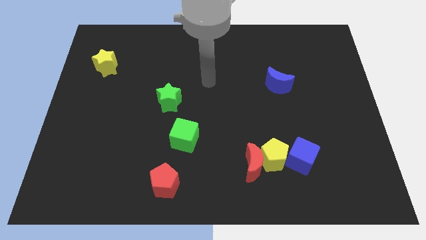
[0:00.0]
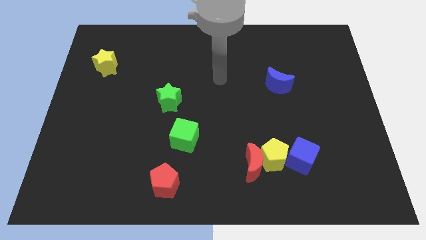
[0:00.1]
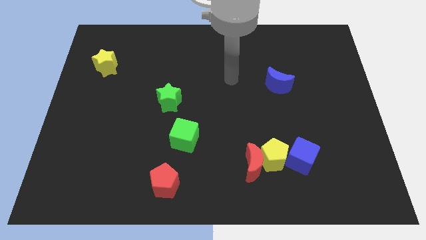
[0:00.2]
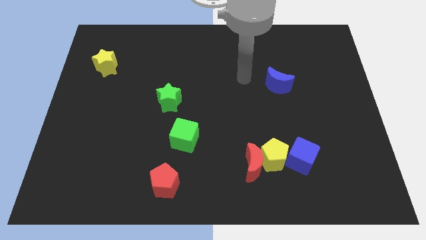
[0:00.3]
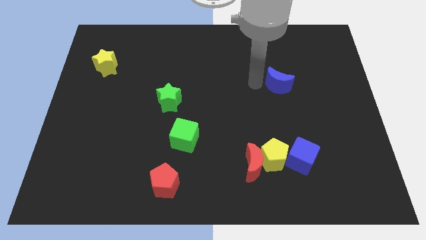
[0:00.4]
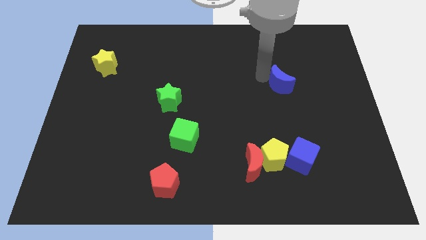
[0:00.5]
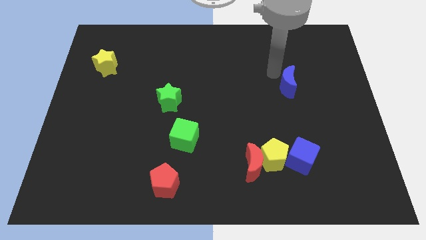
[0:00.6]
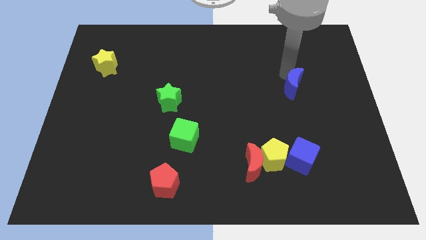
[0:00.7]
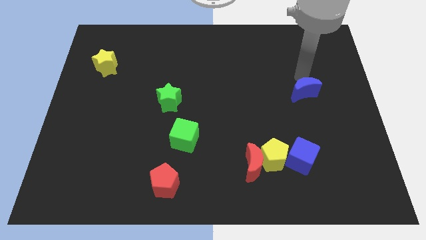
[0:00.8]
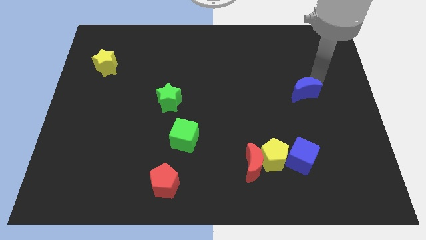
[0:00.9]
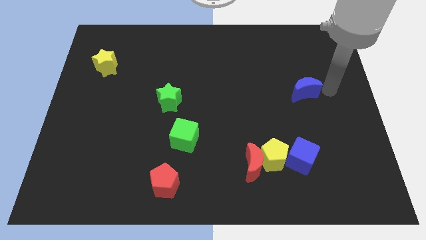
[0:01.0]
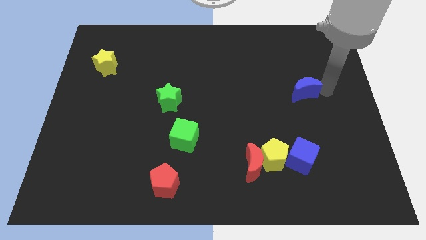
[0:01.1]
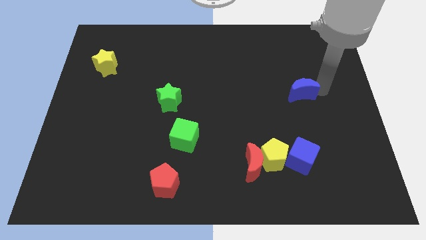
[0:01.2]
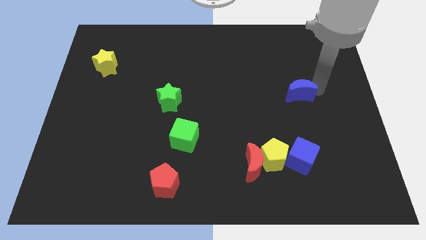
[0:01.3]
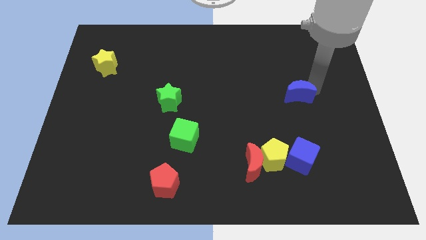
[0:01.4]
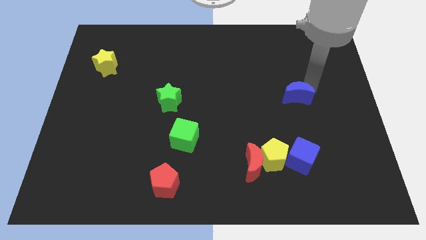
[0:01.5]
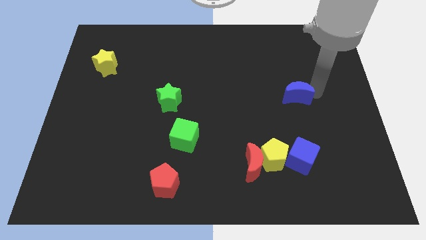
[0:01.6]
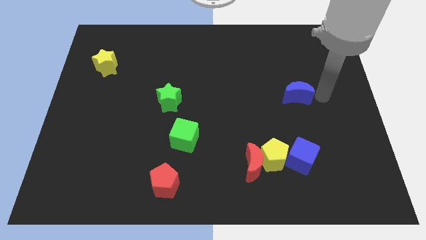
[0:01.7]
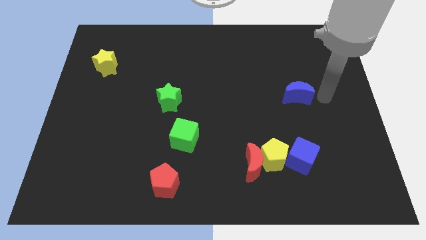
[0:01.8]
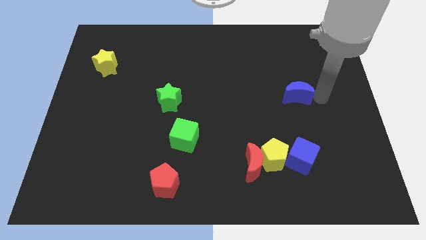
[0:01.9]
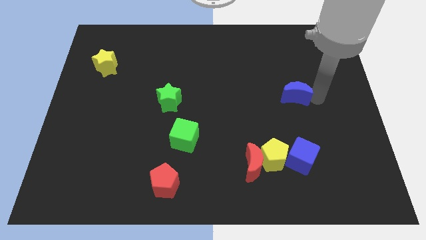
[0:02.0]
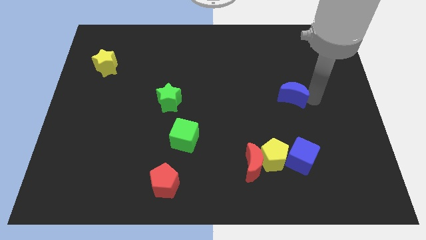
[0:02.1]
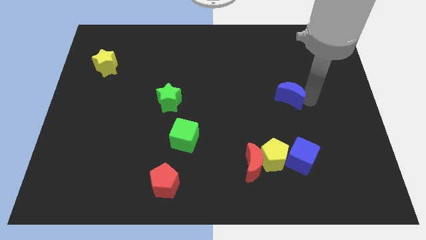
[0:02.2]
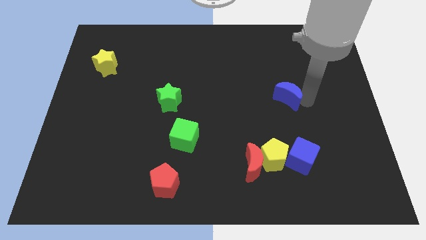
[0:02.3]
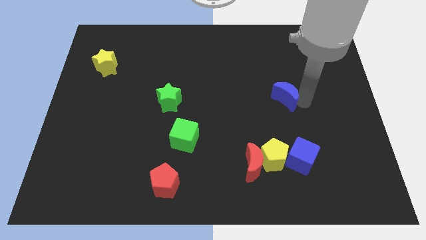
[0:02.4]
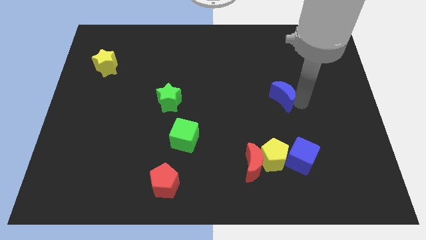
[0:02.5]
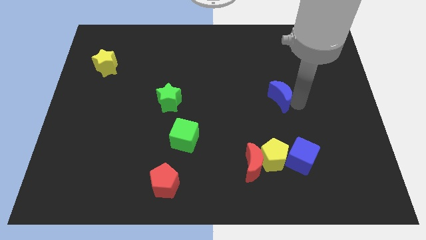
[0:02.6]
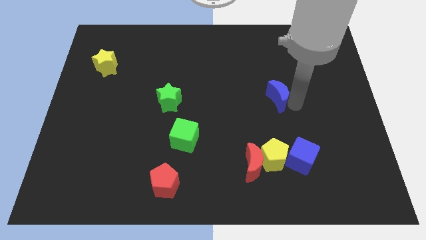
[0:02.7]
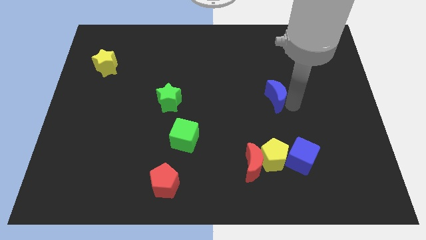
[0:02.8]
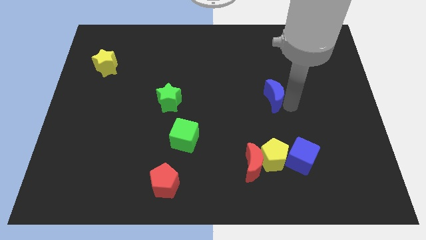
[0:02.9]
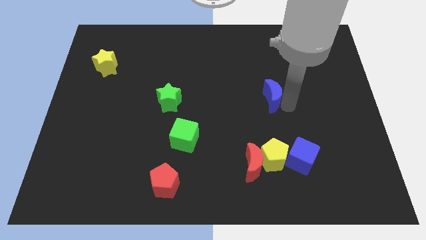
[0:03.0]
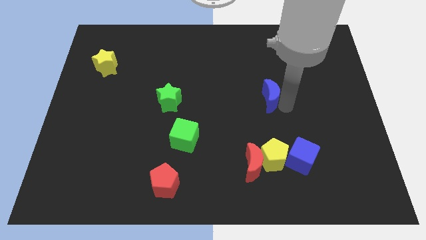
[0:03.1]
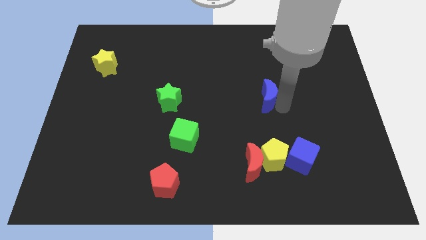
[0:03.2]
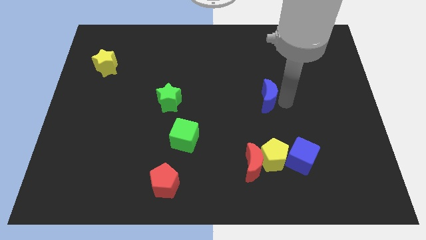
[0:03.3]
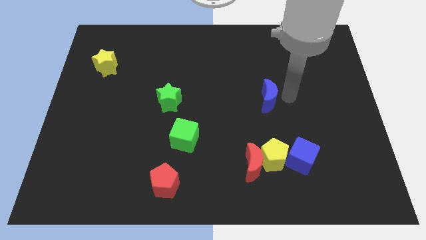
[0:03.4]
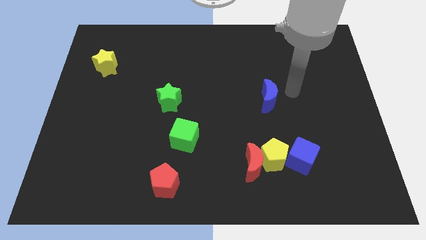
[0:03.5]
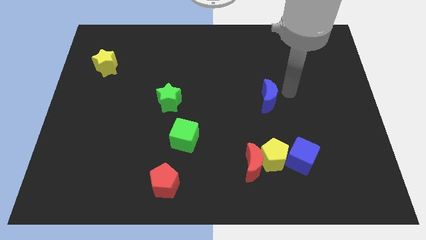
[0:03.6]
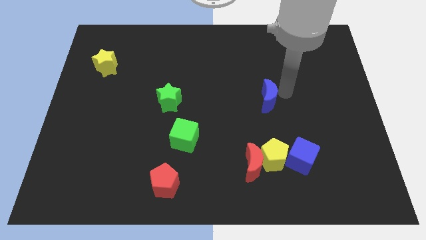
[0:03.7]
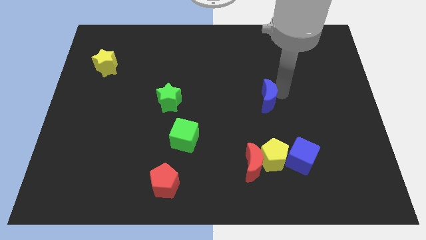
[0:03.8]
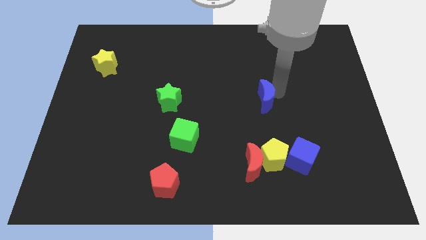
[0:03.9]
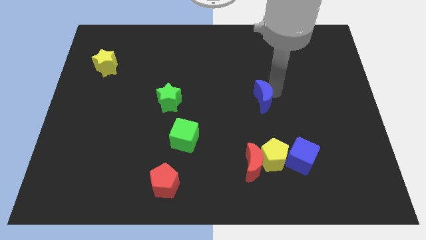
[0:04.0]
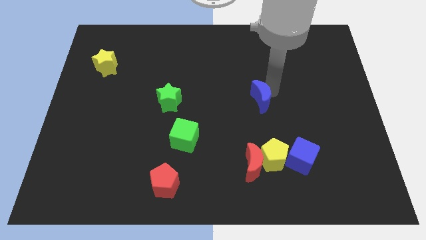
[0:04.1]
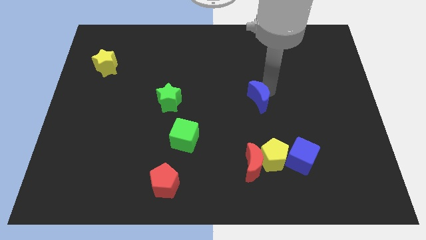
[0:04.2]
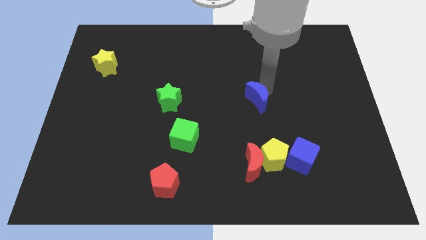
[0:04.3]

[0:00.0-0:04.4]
push the blue moon slightly down and to the left diagonally

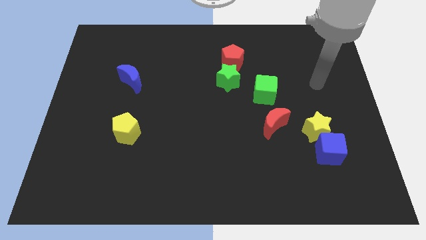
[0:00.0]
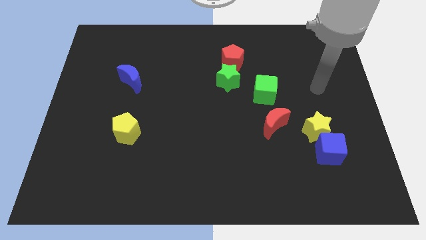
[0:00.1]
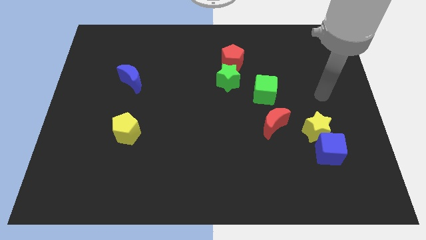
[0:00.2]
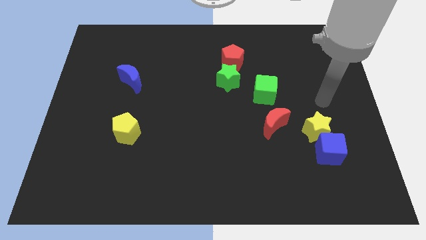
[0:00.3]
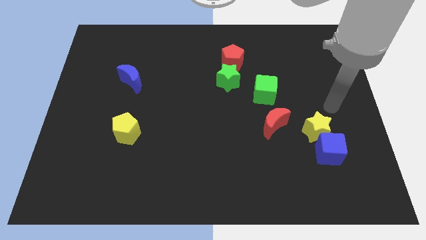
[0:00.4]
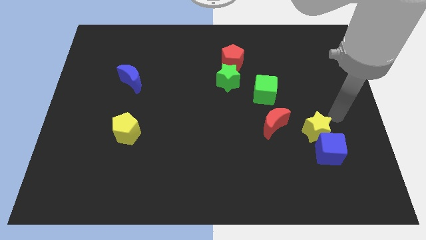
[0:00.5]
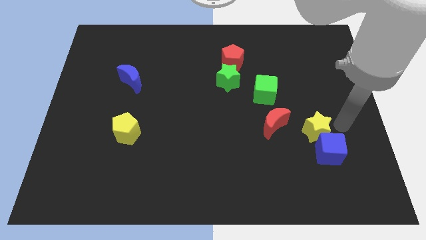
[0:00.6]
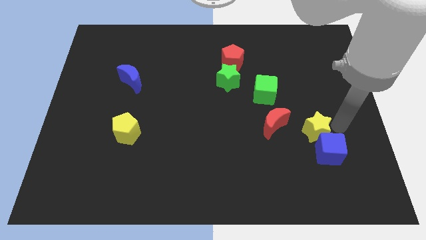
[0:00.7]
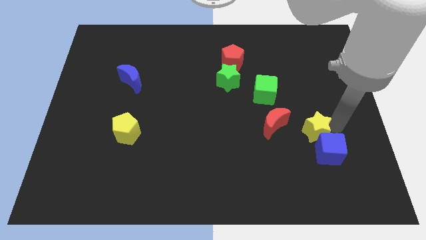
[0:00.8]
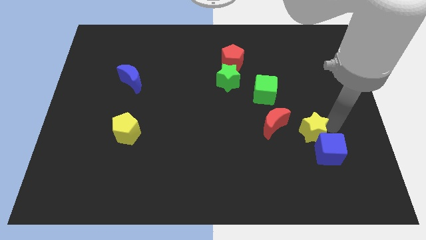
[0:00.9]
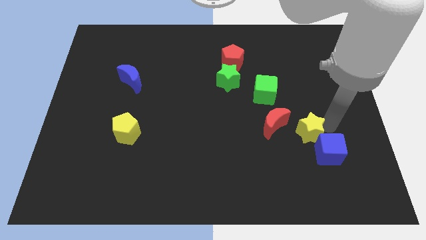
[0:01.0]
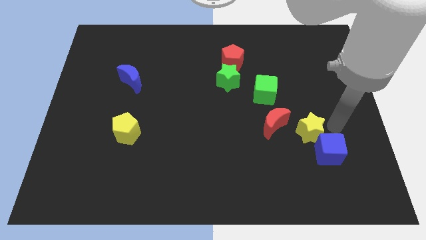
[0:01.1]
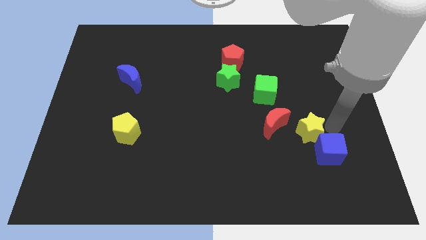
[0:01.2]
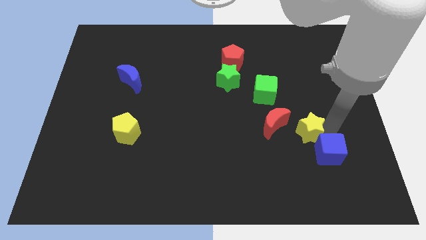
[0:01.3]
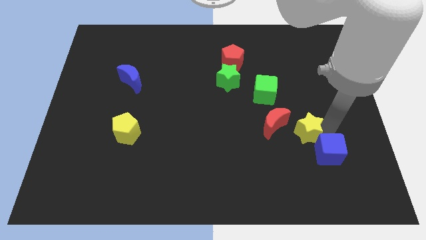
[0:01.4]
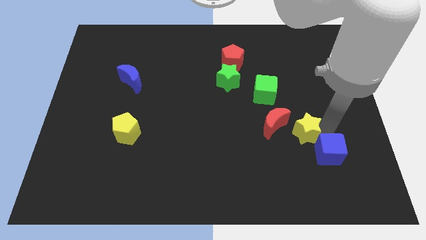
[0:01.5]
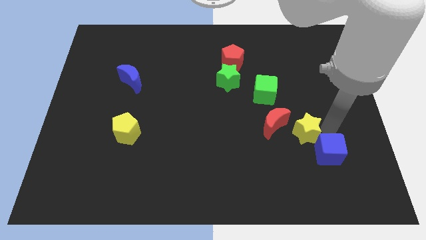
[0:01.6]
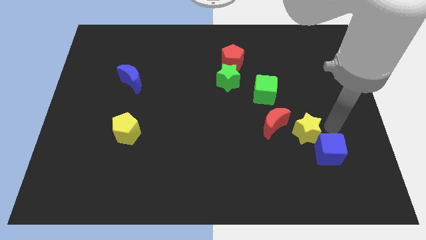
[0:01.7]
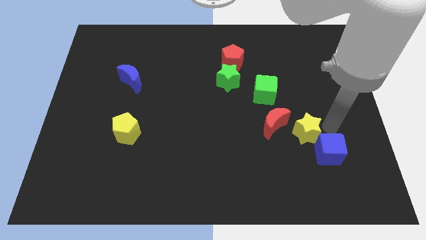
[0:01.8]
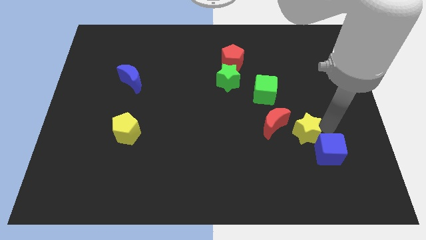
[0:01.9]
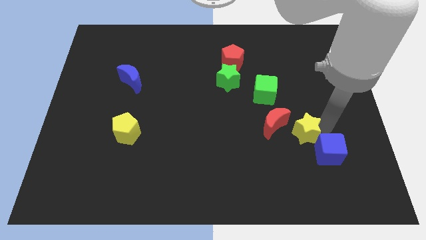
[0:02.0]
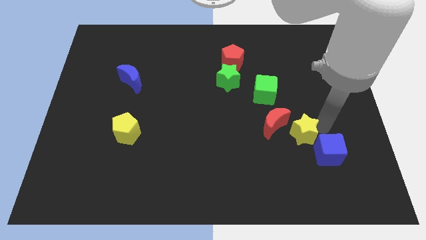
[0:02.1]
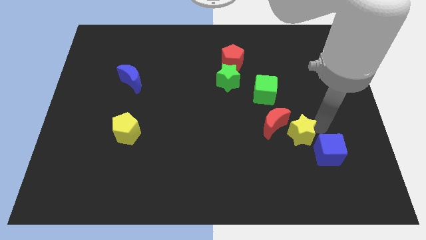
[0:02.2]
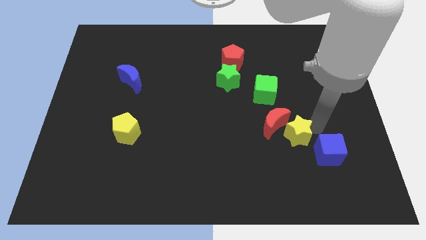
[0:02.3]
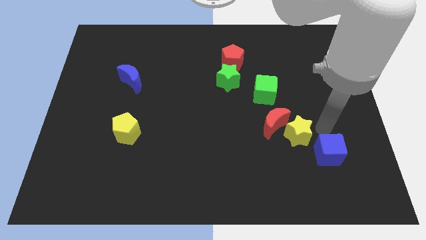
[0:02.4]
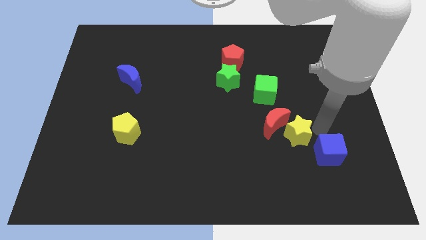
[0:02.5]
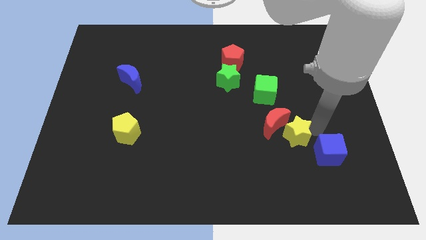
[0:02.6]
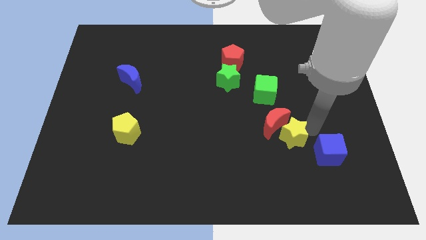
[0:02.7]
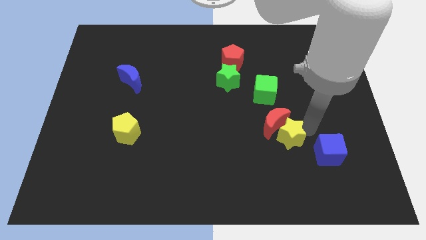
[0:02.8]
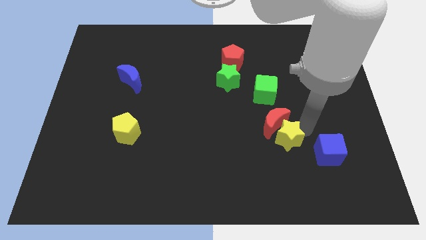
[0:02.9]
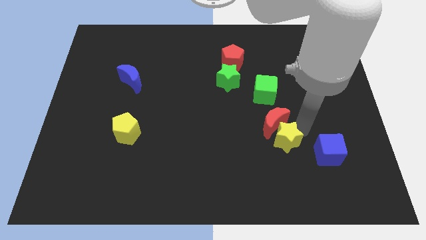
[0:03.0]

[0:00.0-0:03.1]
slide the yellow star left a bit

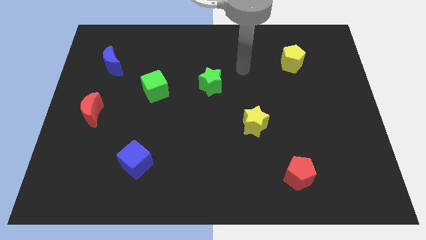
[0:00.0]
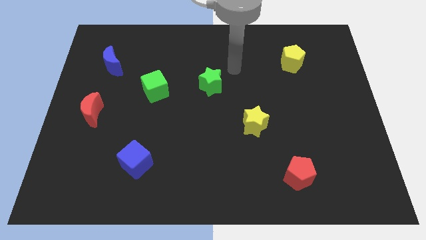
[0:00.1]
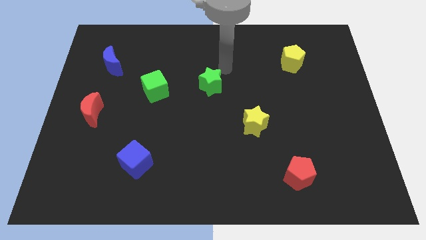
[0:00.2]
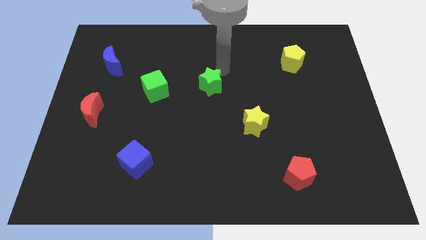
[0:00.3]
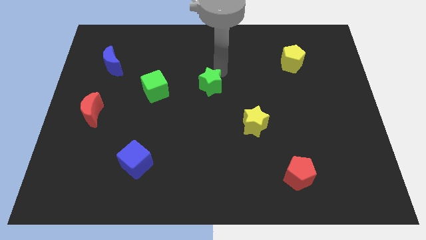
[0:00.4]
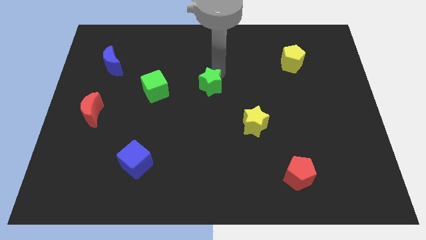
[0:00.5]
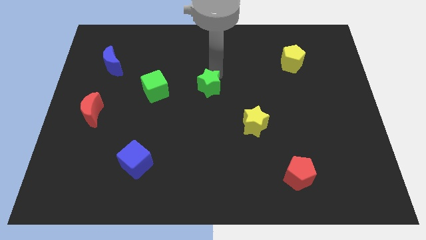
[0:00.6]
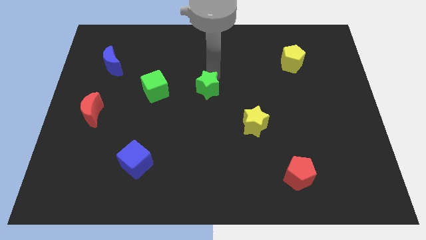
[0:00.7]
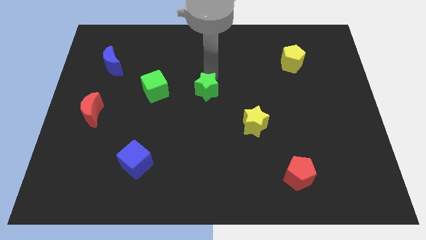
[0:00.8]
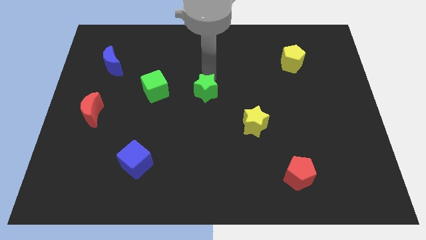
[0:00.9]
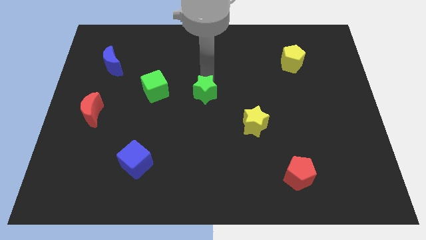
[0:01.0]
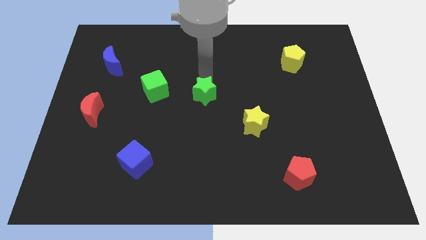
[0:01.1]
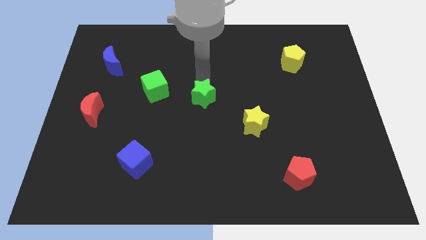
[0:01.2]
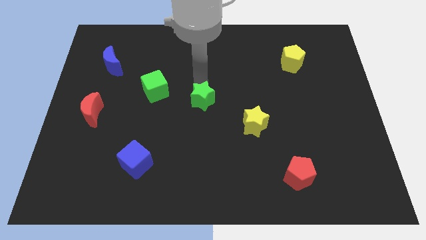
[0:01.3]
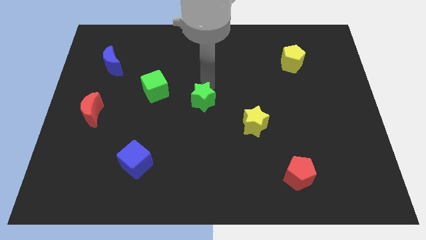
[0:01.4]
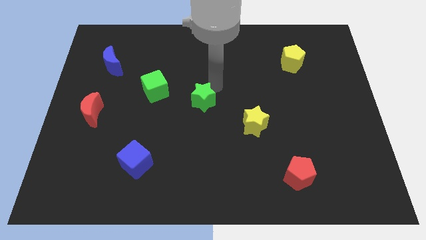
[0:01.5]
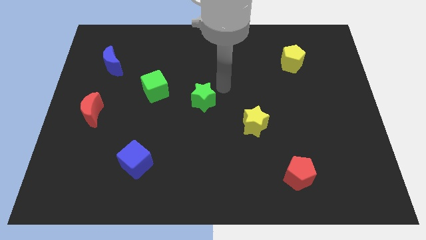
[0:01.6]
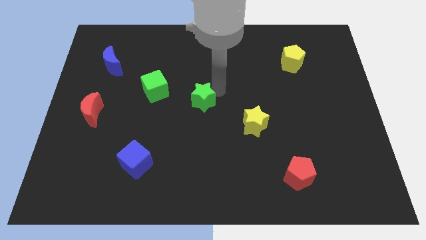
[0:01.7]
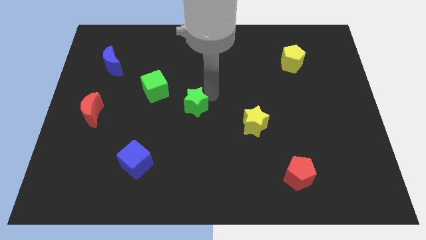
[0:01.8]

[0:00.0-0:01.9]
push the green star down and then left slightly
